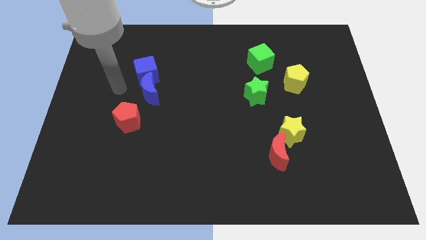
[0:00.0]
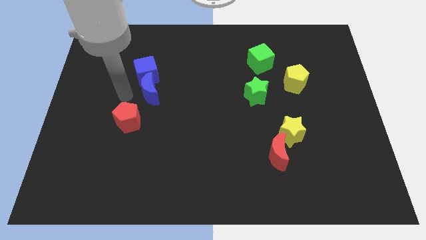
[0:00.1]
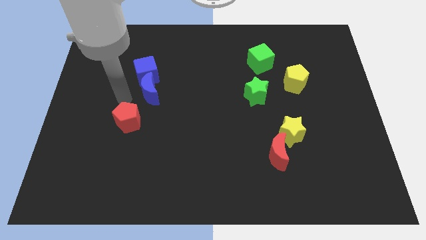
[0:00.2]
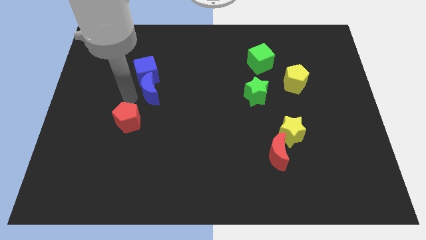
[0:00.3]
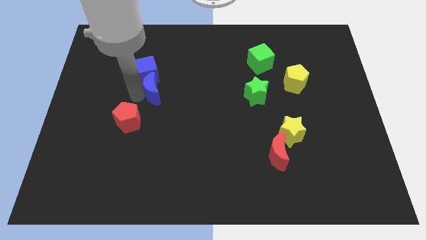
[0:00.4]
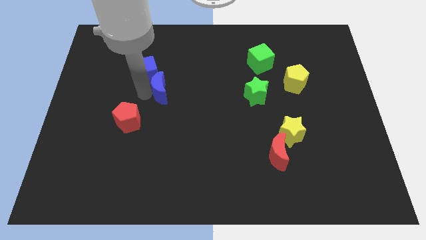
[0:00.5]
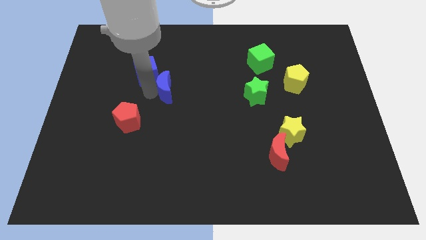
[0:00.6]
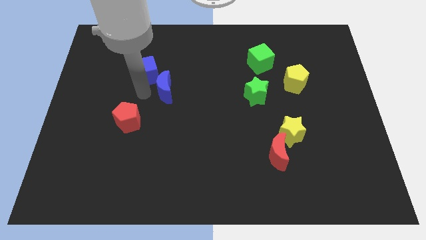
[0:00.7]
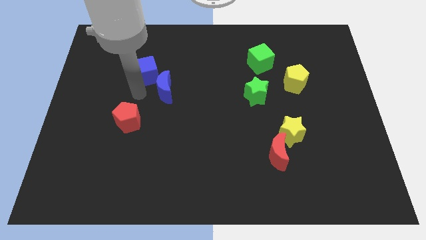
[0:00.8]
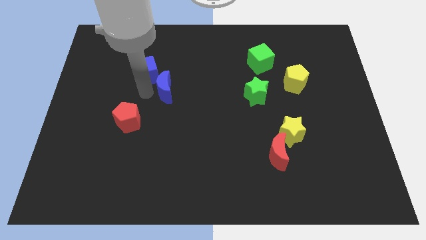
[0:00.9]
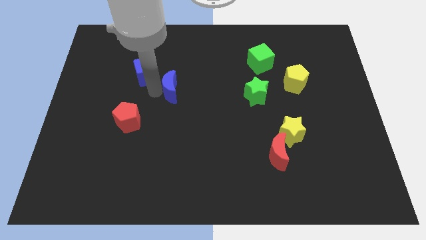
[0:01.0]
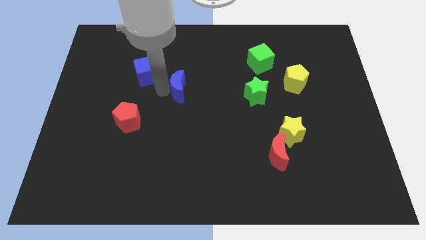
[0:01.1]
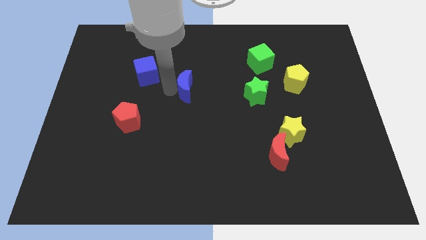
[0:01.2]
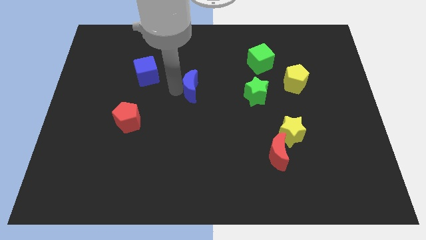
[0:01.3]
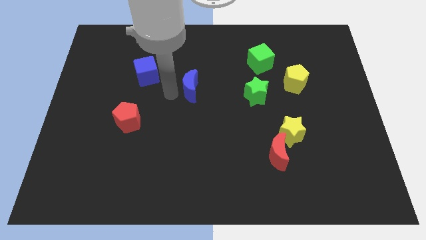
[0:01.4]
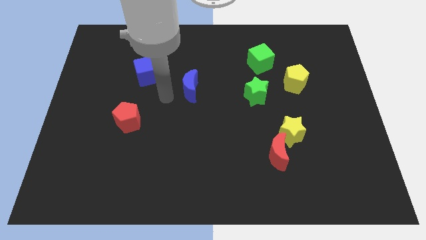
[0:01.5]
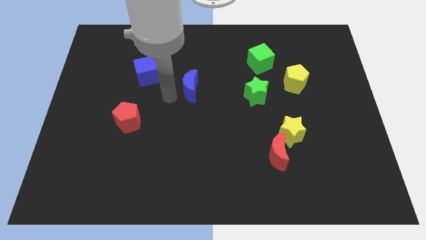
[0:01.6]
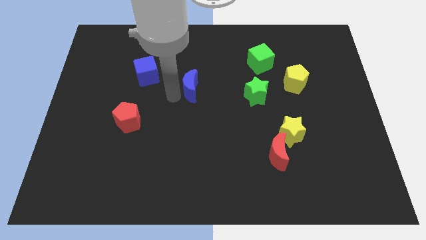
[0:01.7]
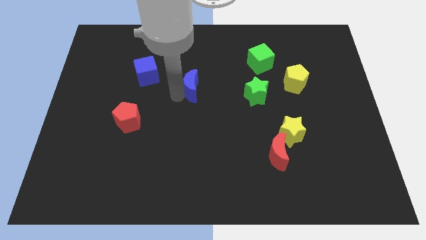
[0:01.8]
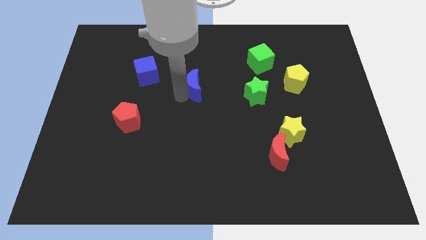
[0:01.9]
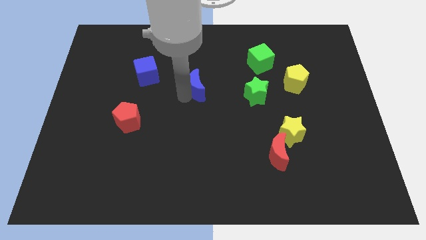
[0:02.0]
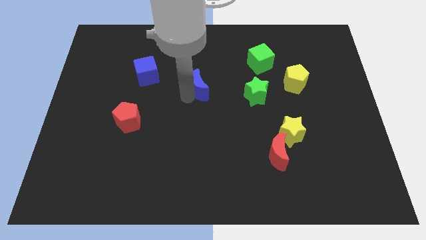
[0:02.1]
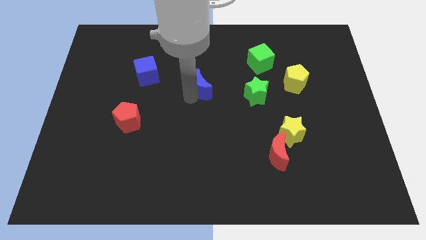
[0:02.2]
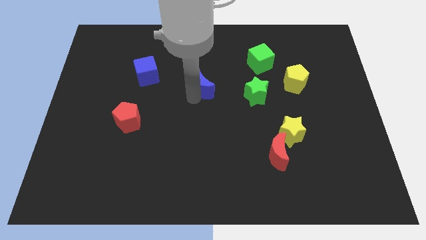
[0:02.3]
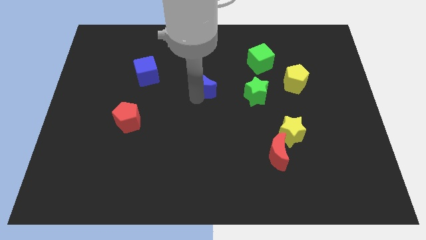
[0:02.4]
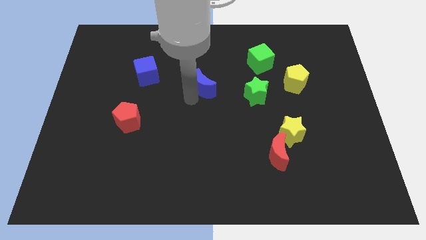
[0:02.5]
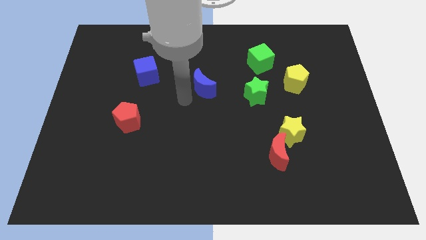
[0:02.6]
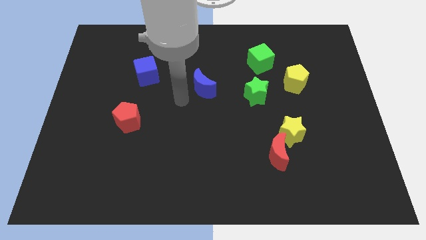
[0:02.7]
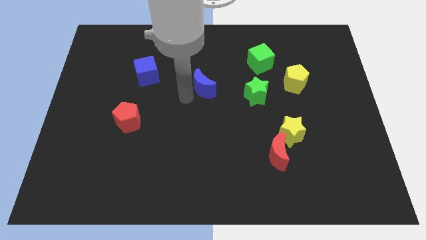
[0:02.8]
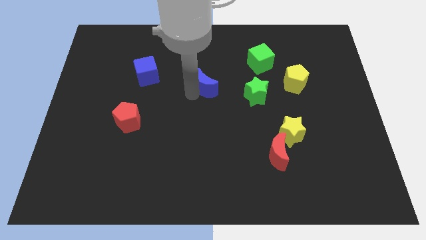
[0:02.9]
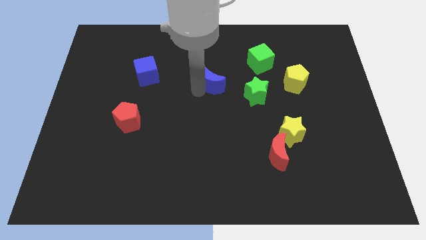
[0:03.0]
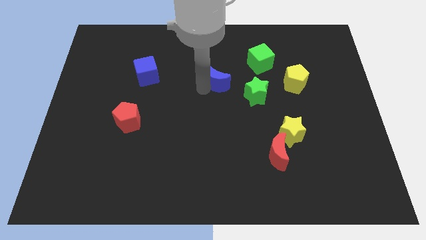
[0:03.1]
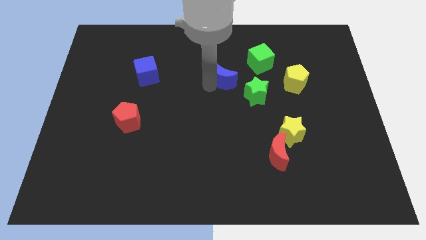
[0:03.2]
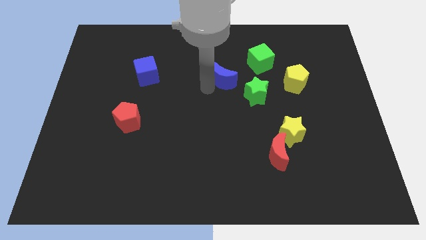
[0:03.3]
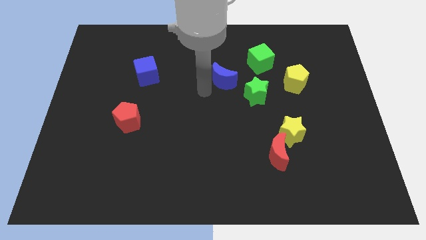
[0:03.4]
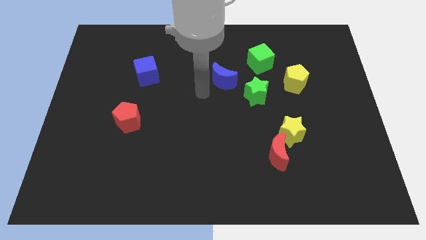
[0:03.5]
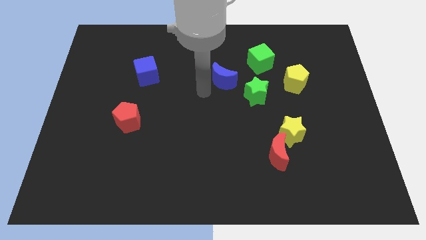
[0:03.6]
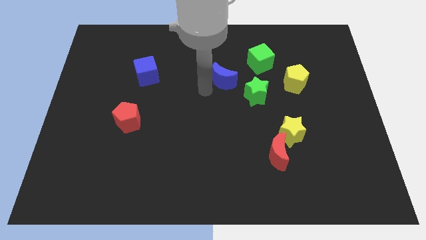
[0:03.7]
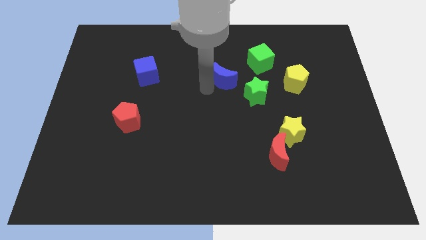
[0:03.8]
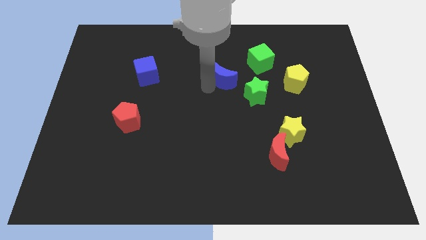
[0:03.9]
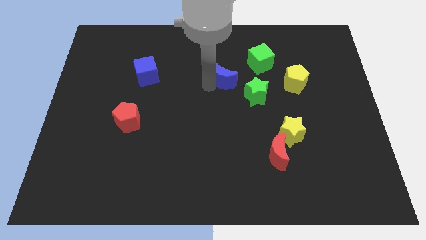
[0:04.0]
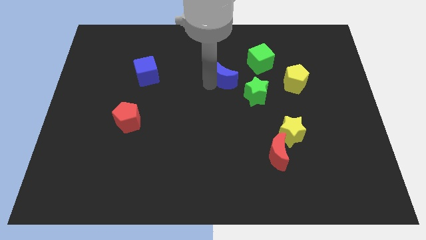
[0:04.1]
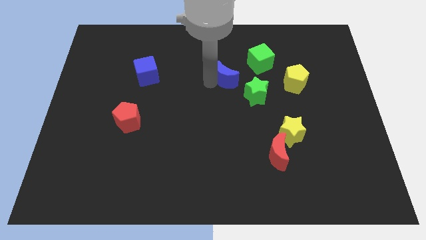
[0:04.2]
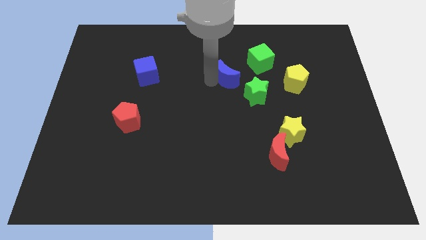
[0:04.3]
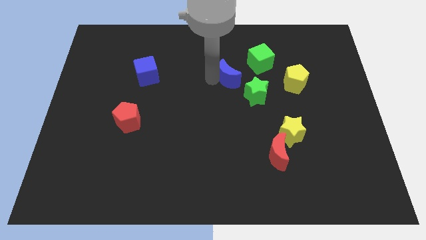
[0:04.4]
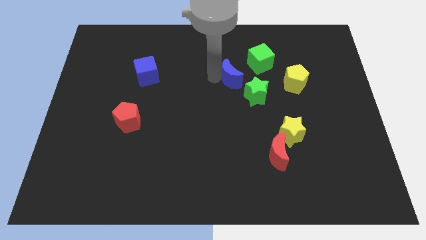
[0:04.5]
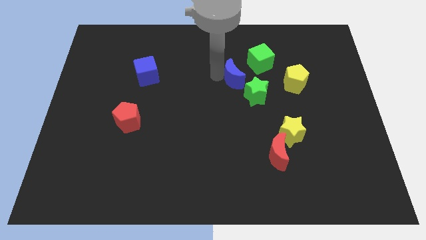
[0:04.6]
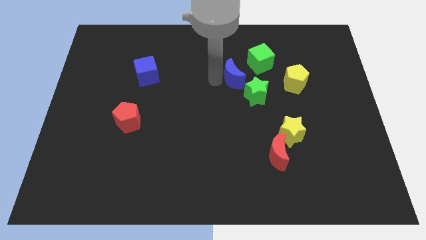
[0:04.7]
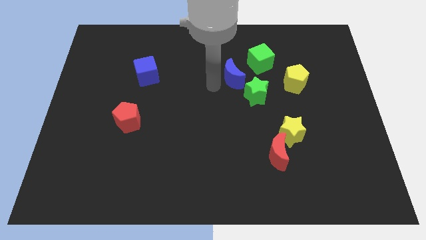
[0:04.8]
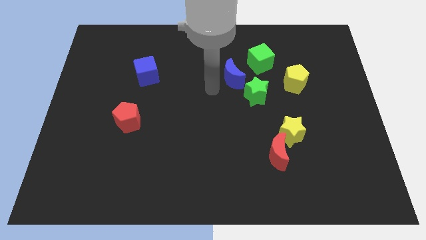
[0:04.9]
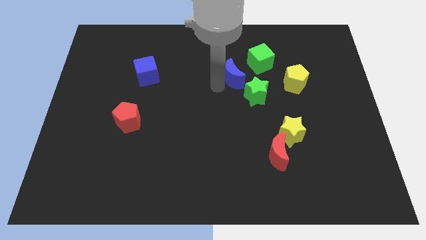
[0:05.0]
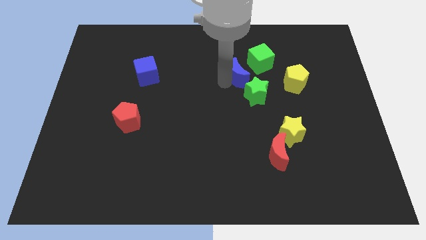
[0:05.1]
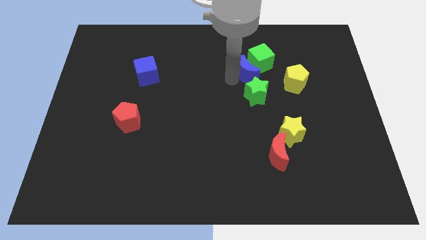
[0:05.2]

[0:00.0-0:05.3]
move the blue moon next to the green cube

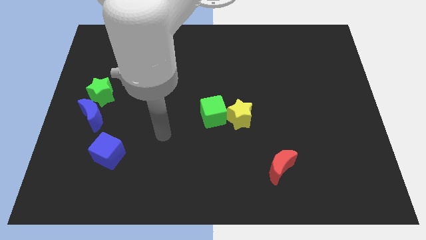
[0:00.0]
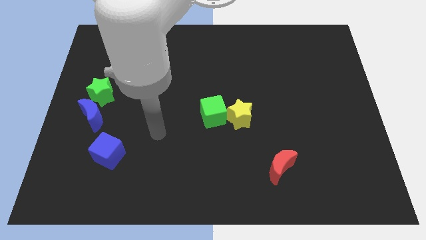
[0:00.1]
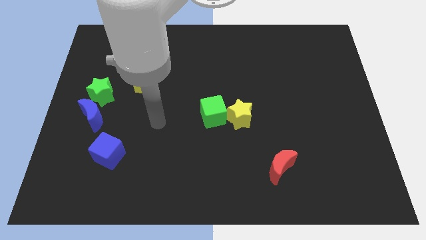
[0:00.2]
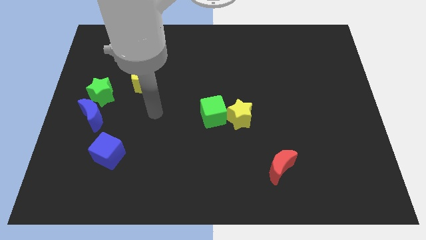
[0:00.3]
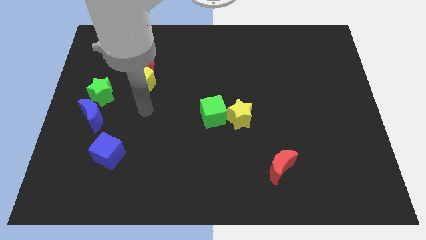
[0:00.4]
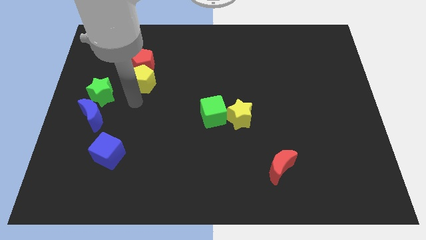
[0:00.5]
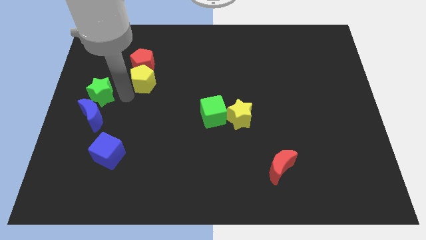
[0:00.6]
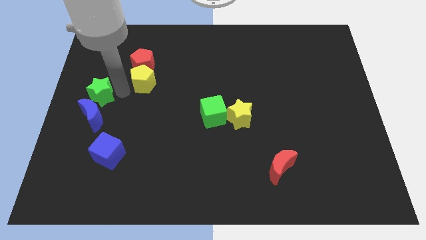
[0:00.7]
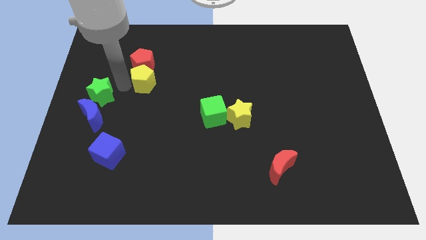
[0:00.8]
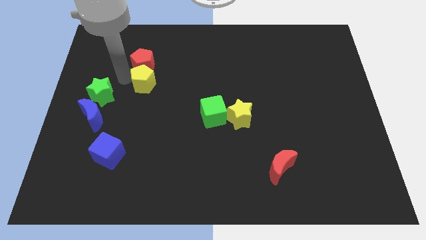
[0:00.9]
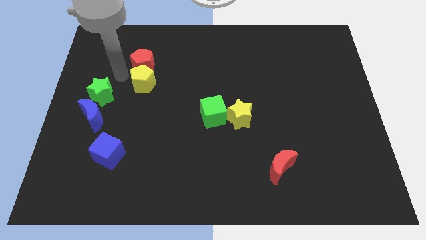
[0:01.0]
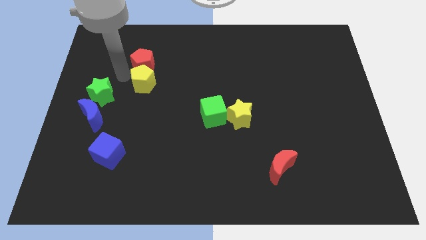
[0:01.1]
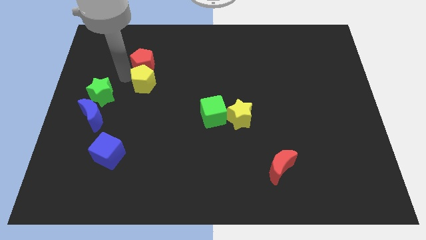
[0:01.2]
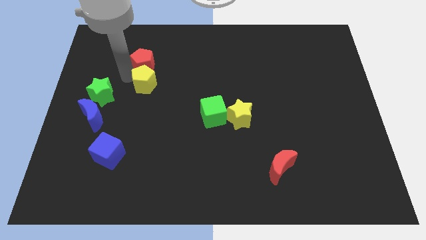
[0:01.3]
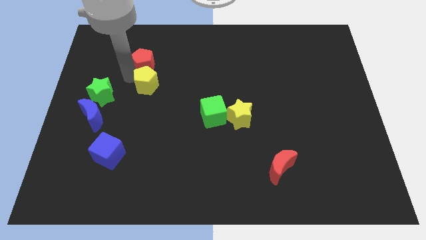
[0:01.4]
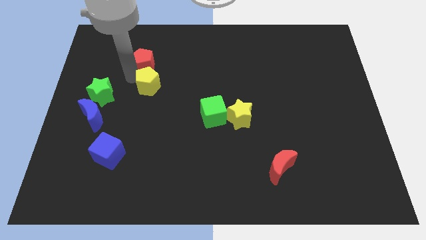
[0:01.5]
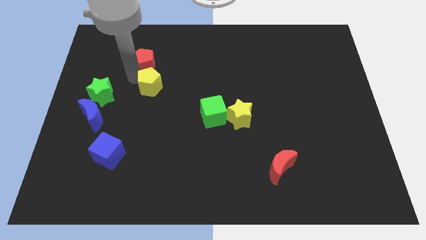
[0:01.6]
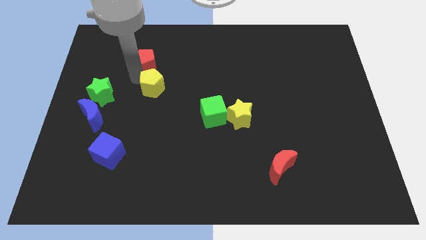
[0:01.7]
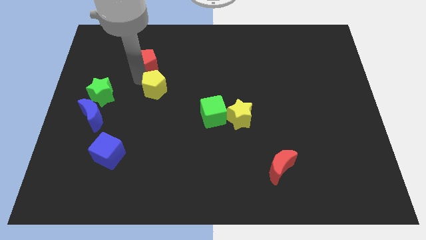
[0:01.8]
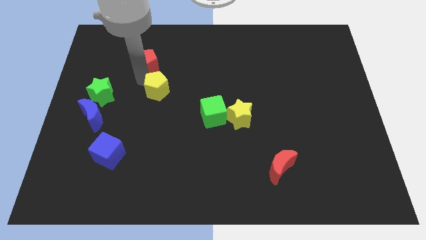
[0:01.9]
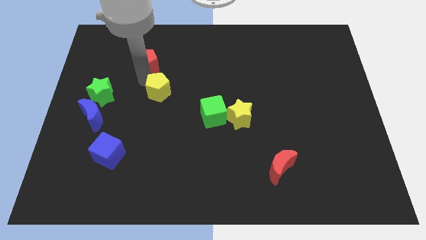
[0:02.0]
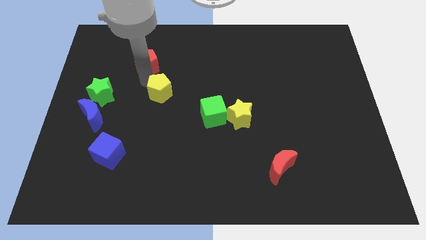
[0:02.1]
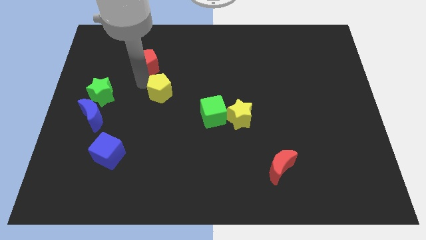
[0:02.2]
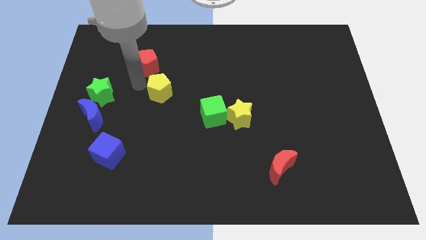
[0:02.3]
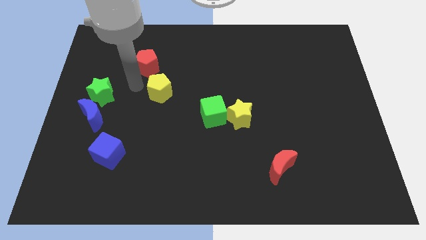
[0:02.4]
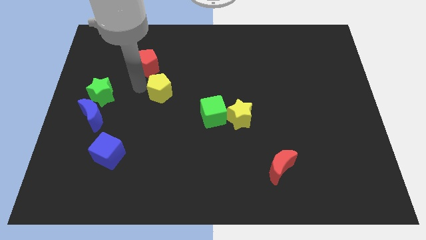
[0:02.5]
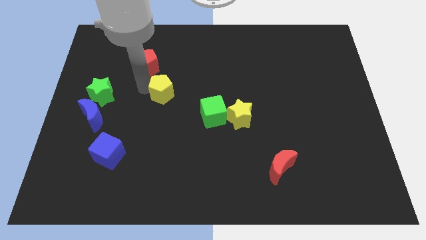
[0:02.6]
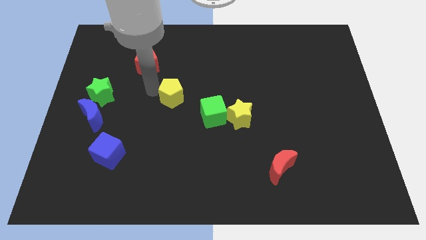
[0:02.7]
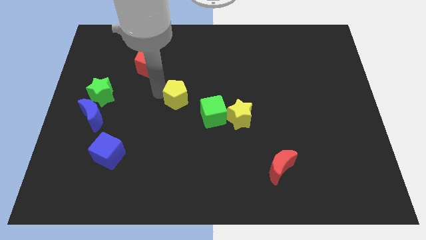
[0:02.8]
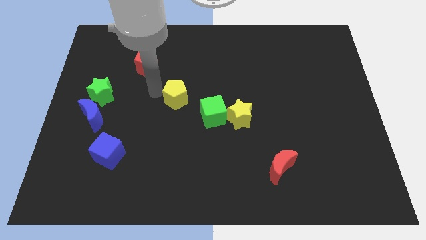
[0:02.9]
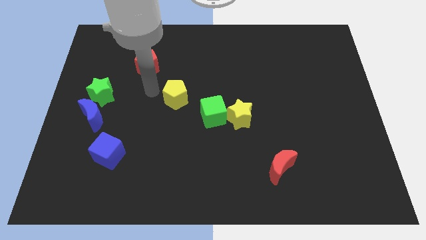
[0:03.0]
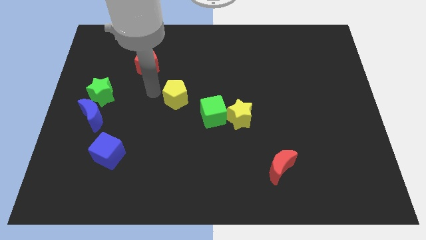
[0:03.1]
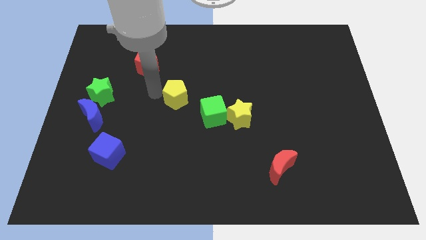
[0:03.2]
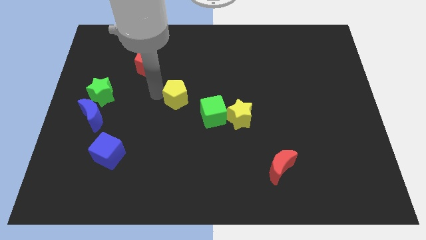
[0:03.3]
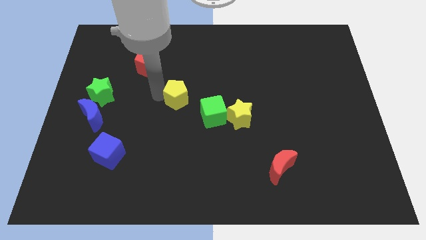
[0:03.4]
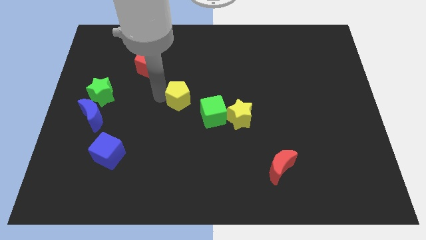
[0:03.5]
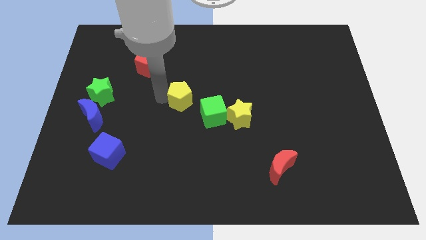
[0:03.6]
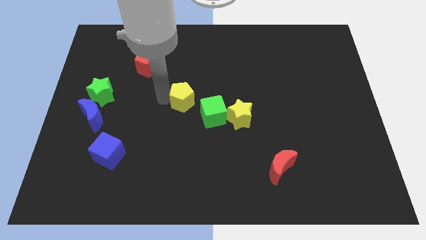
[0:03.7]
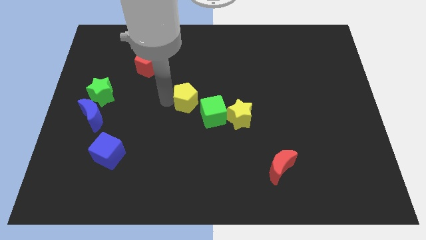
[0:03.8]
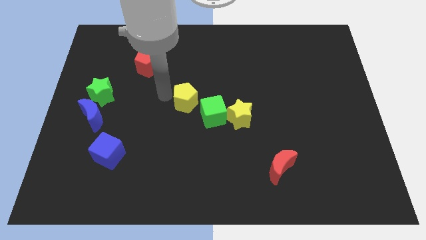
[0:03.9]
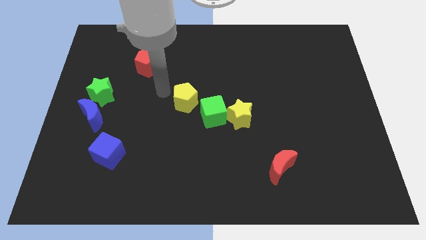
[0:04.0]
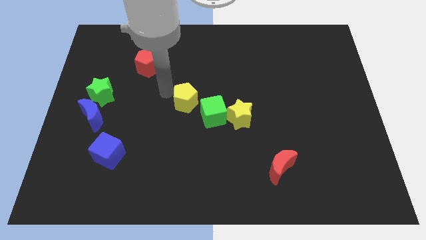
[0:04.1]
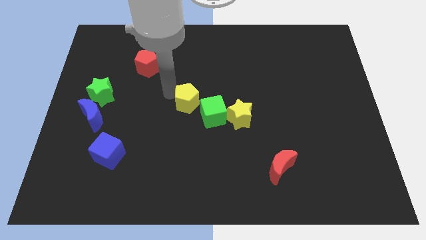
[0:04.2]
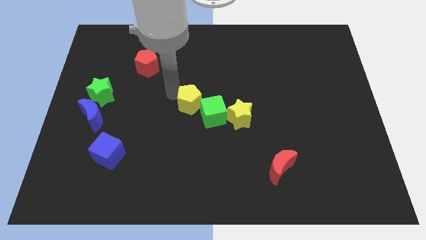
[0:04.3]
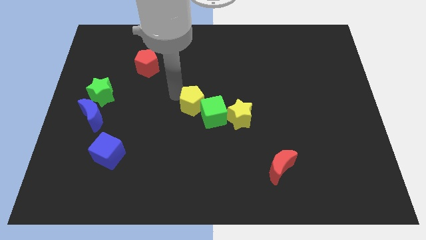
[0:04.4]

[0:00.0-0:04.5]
put the yellow pentagon close to the green cube
